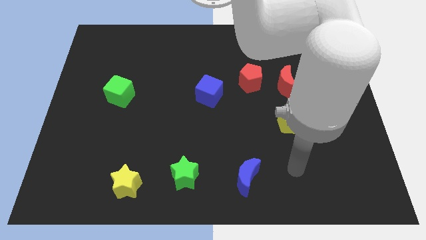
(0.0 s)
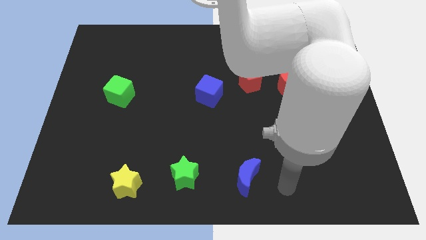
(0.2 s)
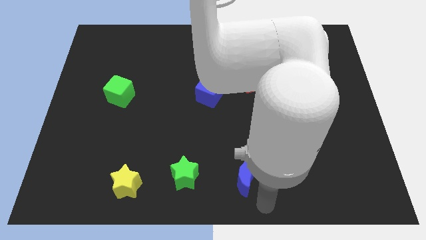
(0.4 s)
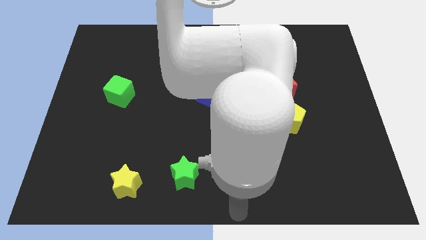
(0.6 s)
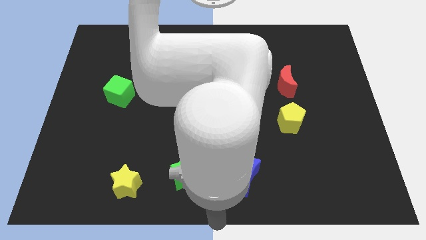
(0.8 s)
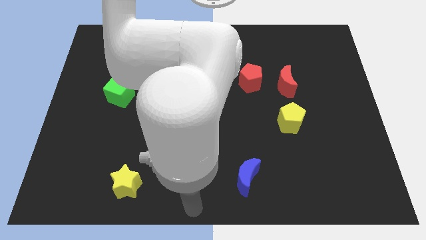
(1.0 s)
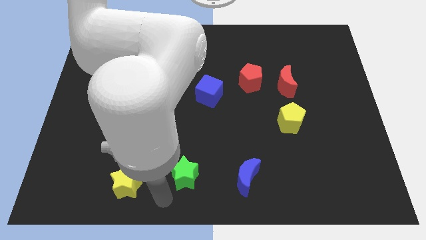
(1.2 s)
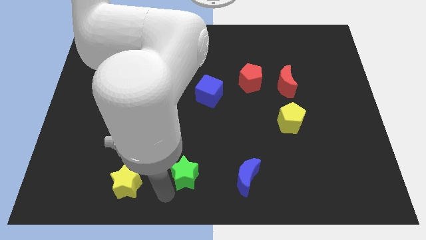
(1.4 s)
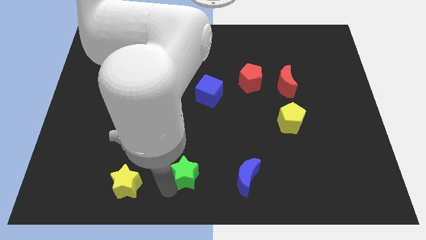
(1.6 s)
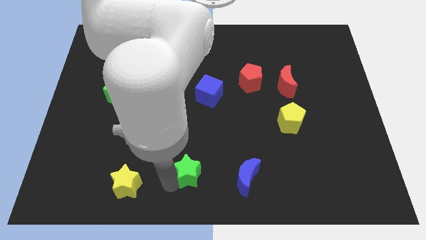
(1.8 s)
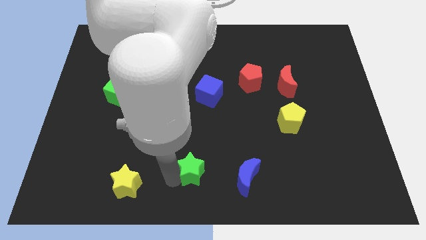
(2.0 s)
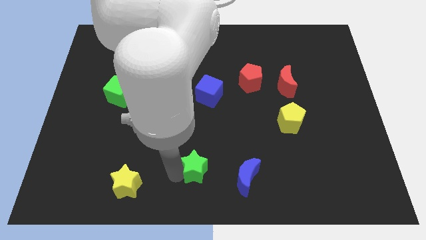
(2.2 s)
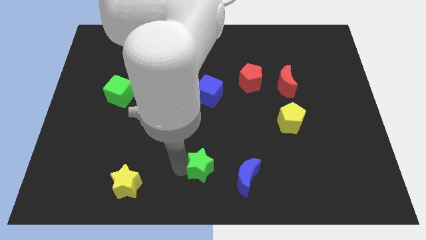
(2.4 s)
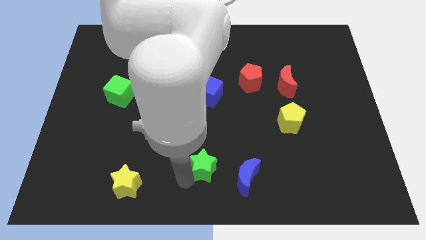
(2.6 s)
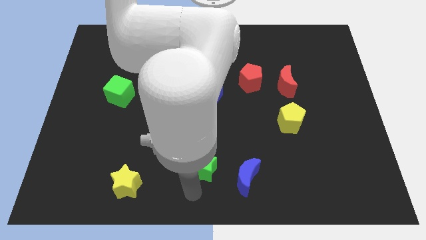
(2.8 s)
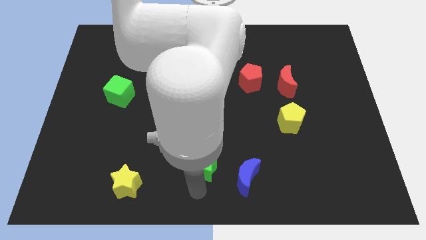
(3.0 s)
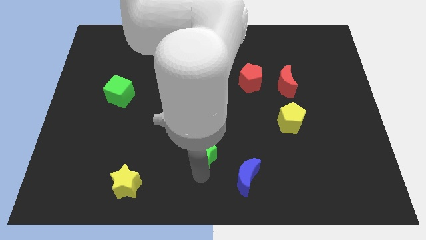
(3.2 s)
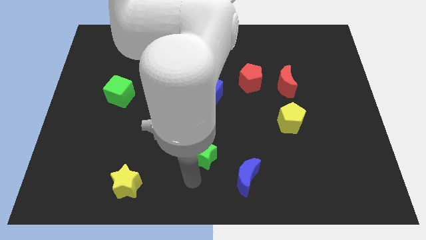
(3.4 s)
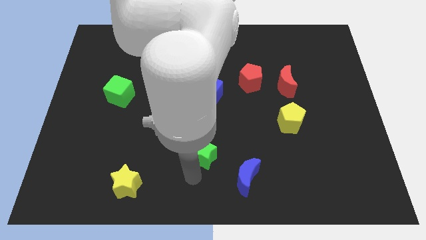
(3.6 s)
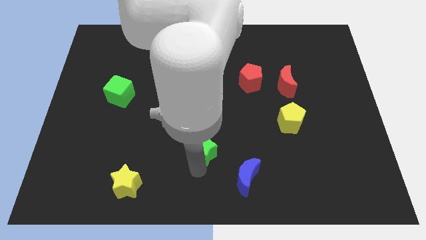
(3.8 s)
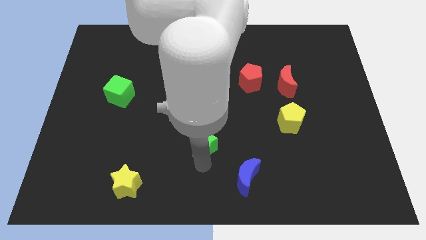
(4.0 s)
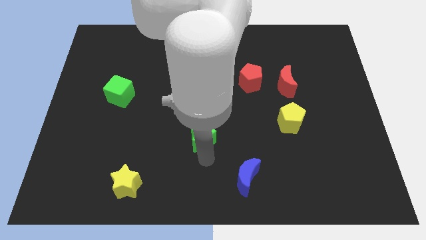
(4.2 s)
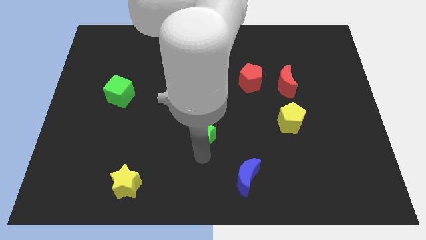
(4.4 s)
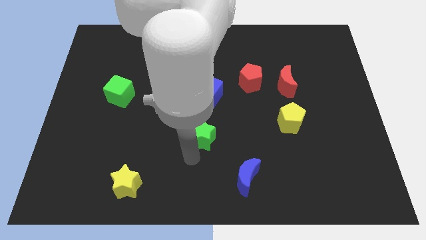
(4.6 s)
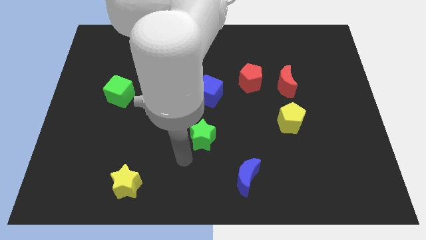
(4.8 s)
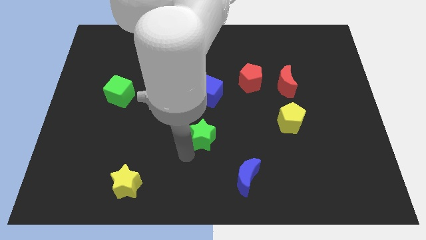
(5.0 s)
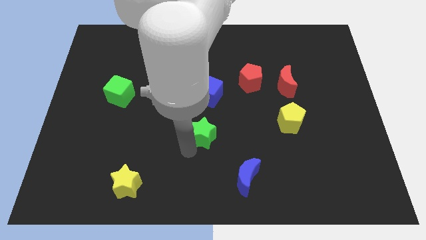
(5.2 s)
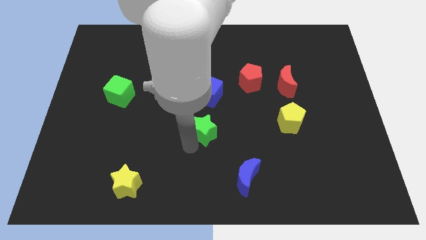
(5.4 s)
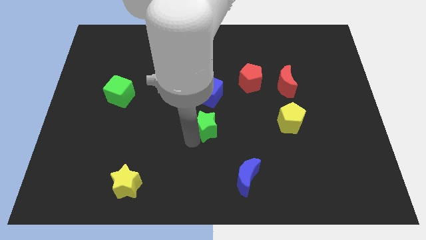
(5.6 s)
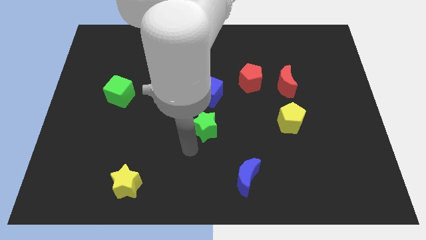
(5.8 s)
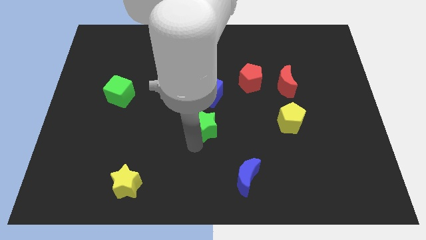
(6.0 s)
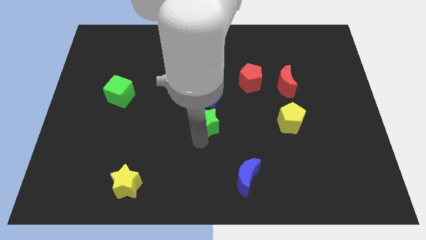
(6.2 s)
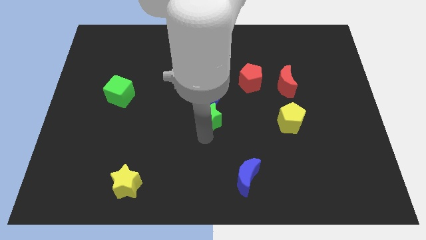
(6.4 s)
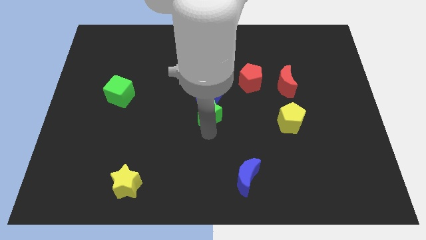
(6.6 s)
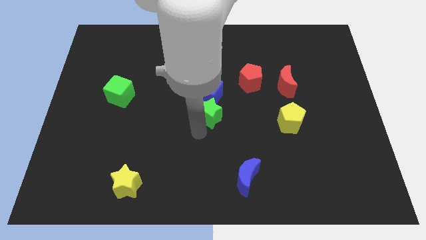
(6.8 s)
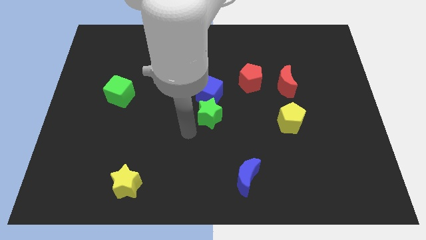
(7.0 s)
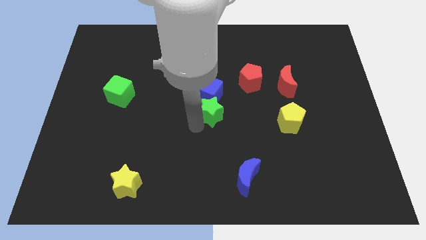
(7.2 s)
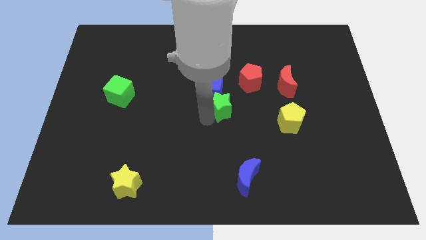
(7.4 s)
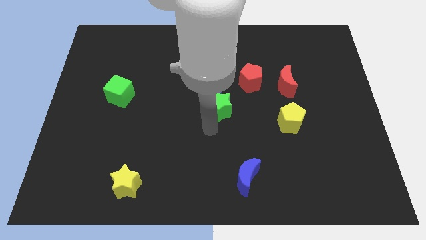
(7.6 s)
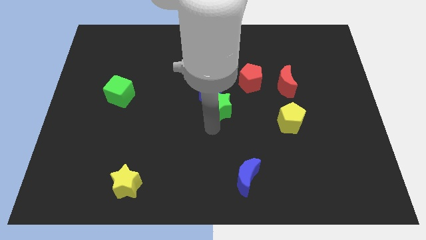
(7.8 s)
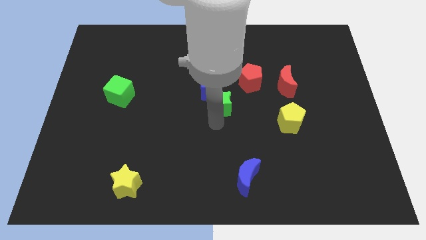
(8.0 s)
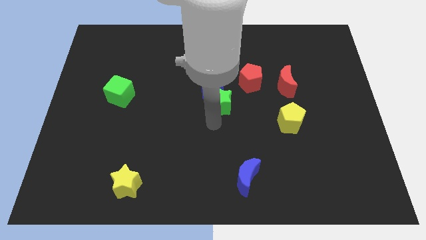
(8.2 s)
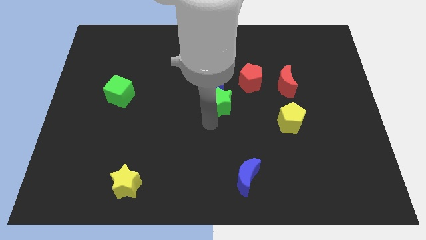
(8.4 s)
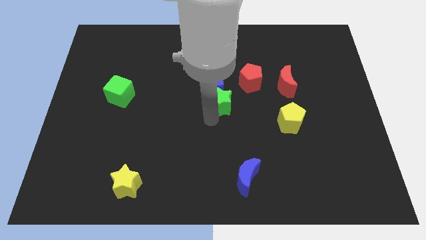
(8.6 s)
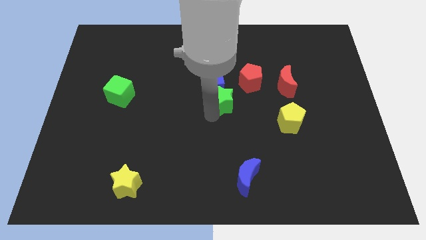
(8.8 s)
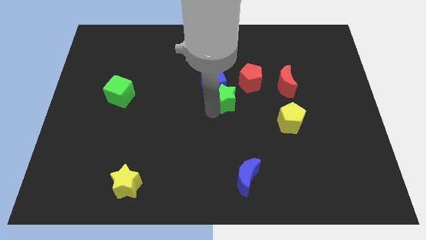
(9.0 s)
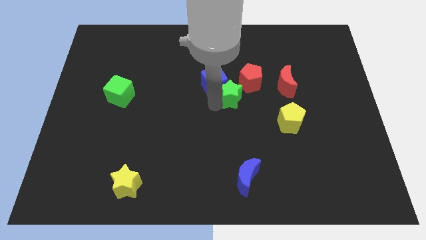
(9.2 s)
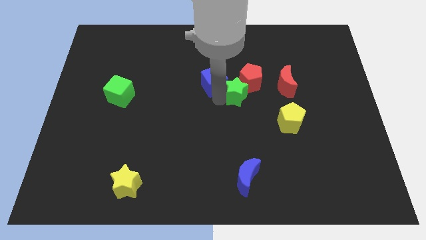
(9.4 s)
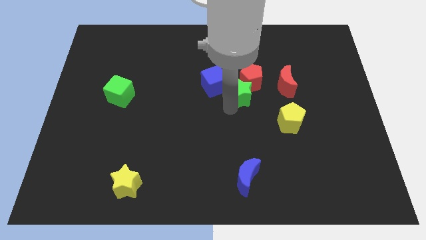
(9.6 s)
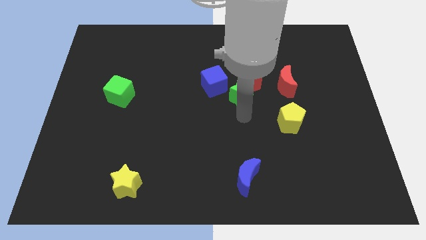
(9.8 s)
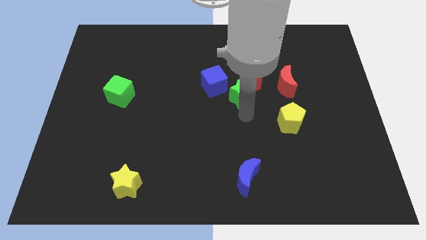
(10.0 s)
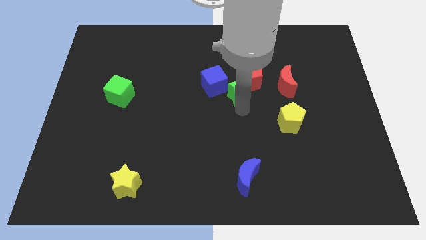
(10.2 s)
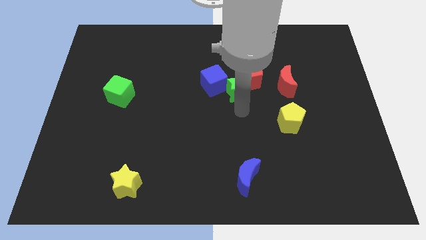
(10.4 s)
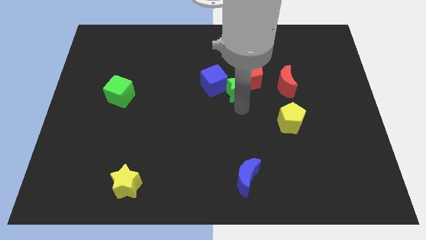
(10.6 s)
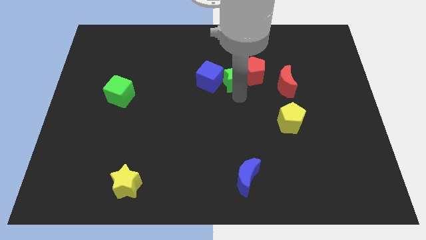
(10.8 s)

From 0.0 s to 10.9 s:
put the green star diagonally up and to the right of the blue cube

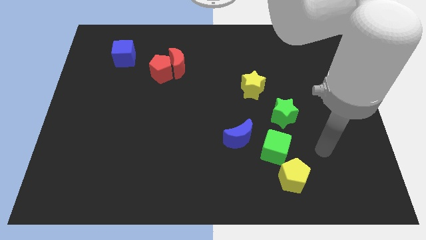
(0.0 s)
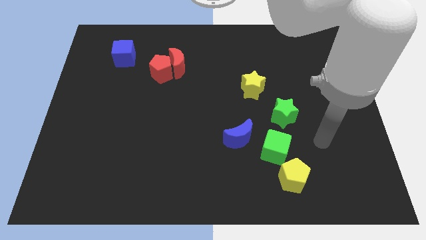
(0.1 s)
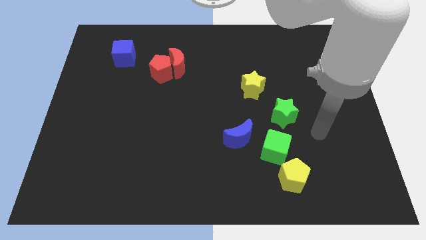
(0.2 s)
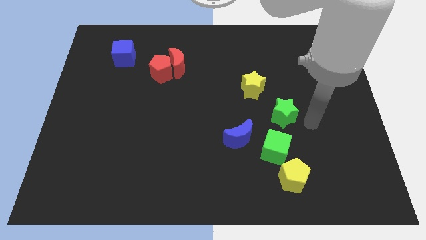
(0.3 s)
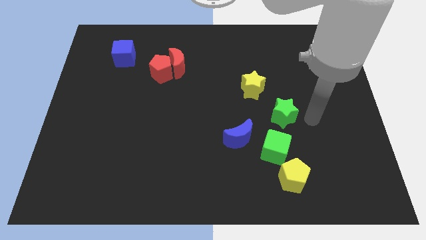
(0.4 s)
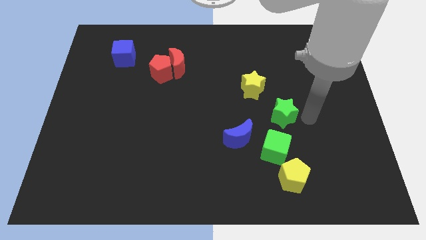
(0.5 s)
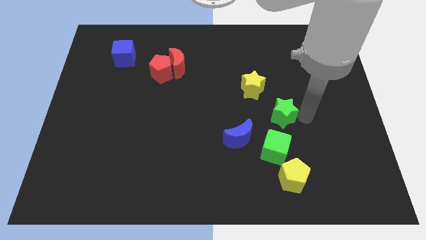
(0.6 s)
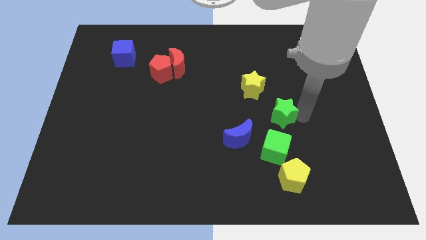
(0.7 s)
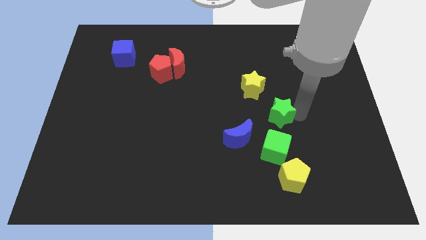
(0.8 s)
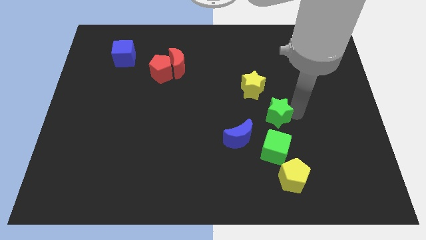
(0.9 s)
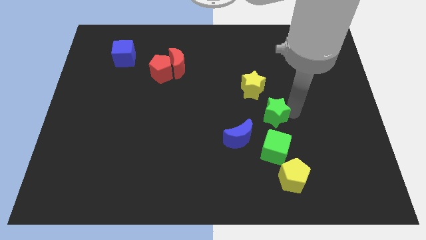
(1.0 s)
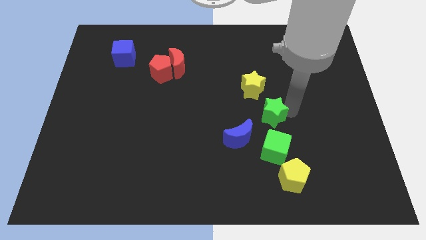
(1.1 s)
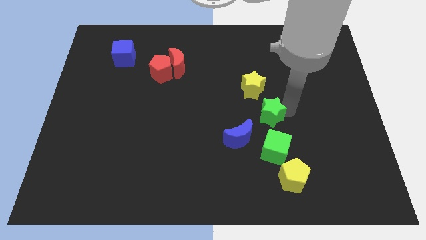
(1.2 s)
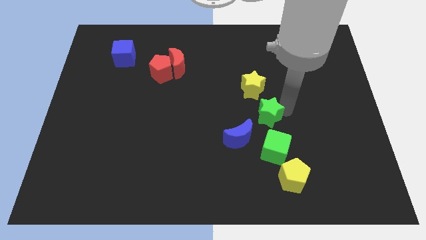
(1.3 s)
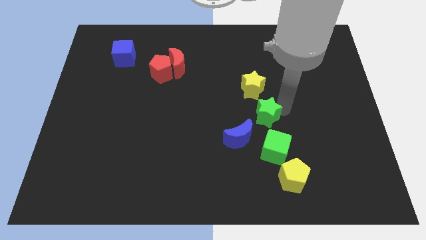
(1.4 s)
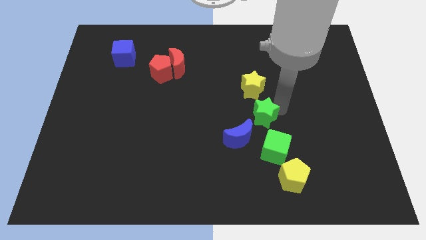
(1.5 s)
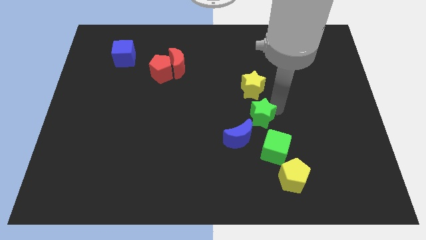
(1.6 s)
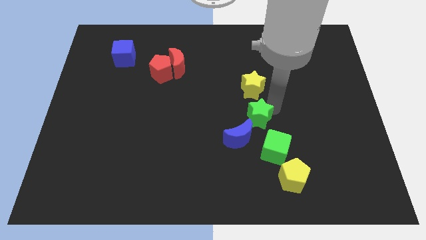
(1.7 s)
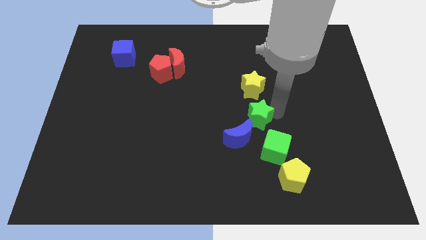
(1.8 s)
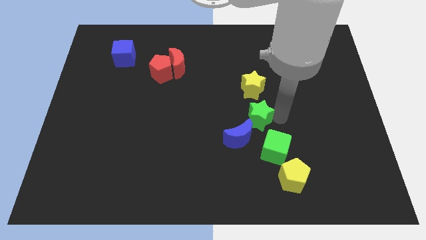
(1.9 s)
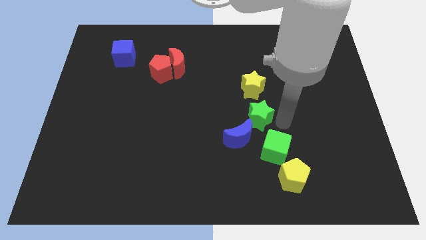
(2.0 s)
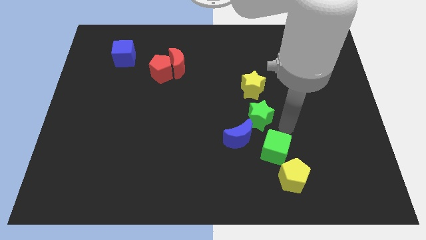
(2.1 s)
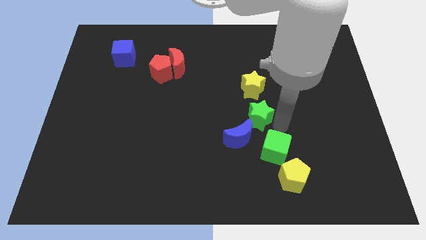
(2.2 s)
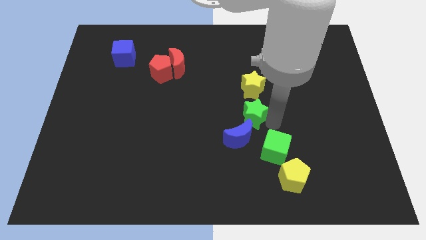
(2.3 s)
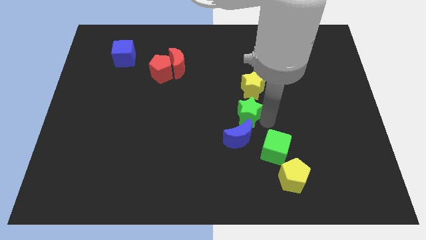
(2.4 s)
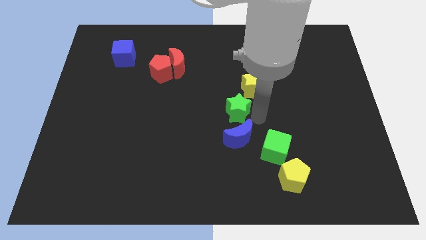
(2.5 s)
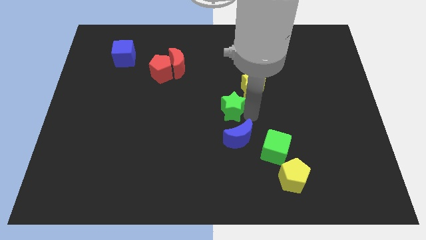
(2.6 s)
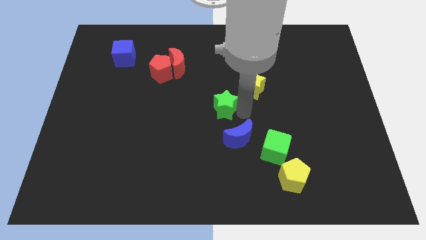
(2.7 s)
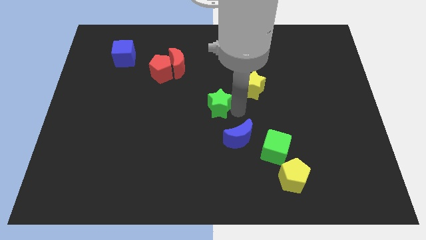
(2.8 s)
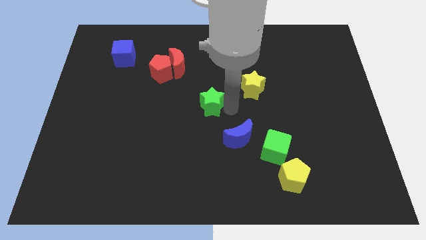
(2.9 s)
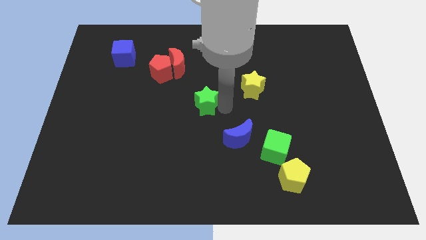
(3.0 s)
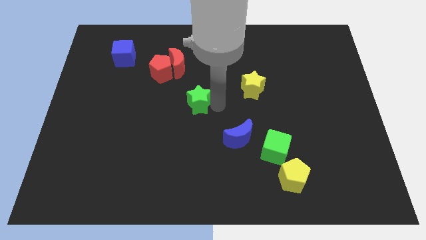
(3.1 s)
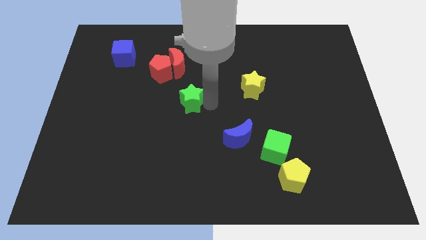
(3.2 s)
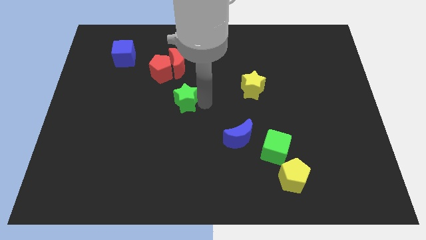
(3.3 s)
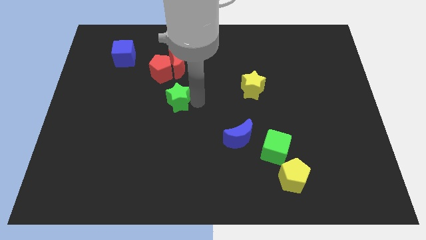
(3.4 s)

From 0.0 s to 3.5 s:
put the green star to the bottom side of the red pentagon
